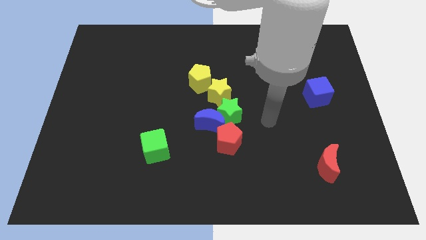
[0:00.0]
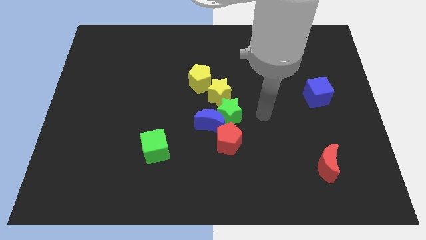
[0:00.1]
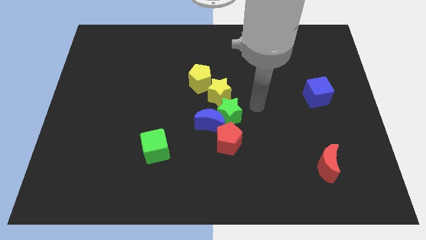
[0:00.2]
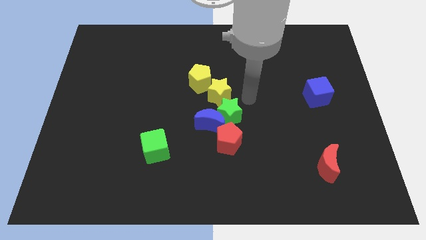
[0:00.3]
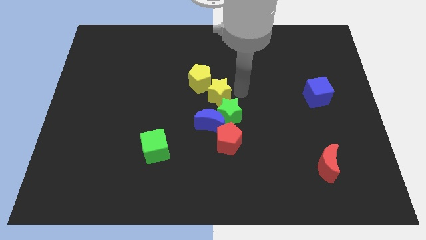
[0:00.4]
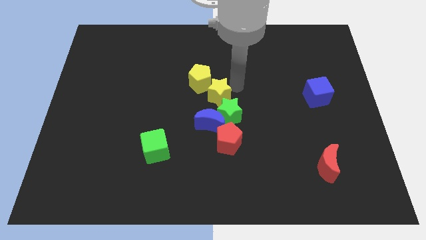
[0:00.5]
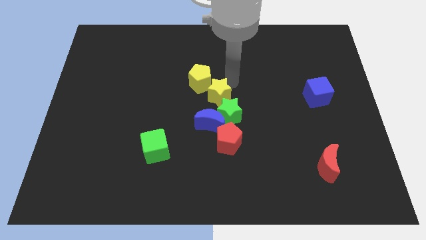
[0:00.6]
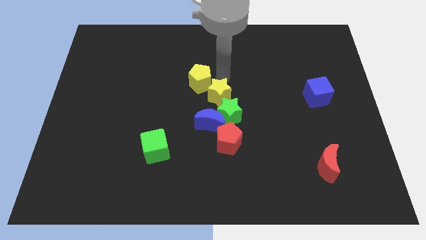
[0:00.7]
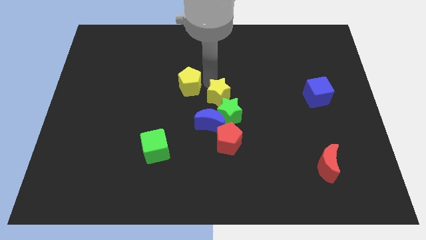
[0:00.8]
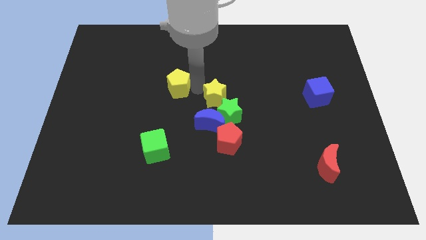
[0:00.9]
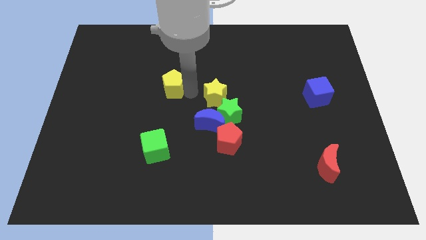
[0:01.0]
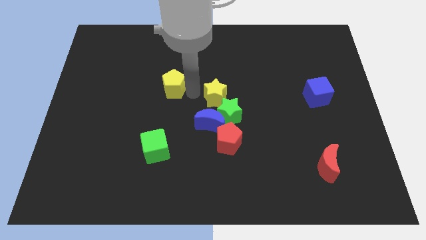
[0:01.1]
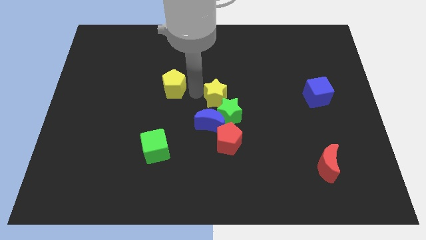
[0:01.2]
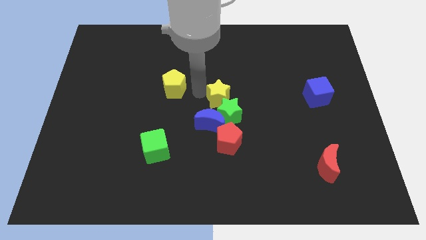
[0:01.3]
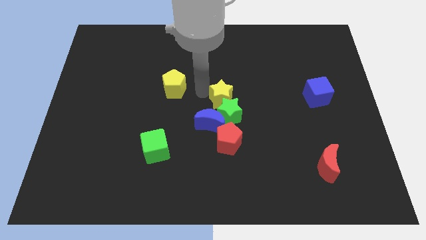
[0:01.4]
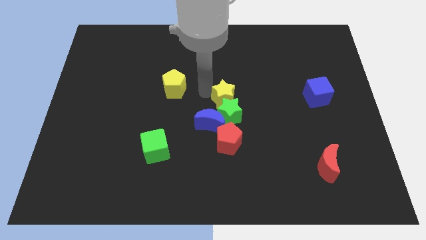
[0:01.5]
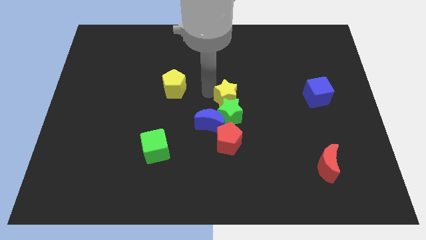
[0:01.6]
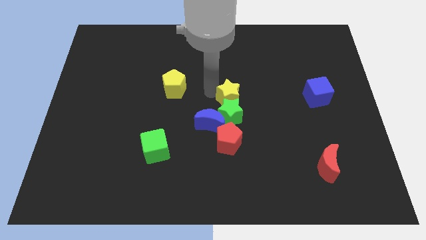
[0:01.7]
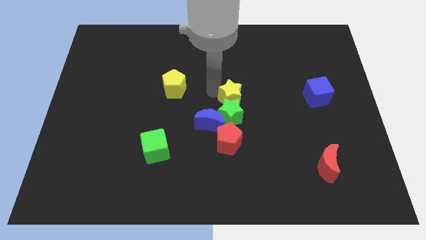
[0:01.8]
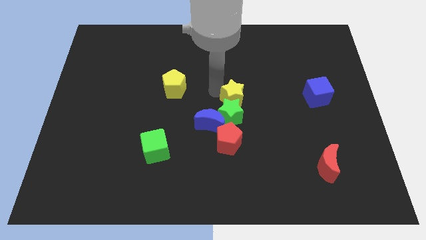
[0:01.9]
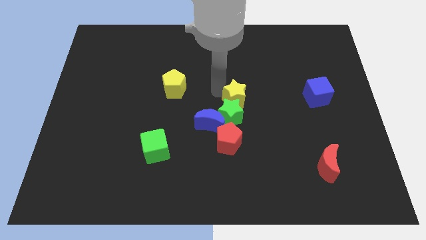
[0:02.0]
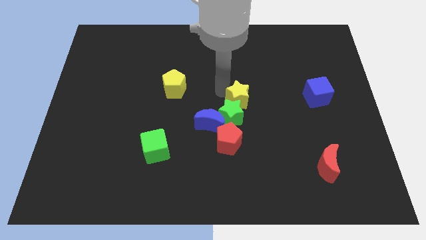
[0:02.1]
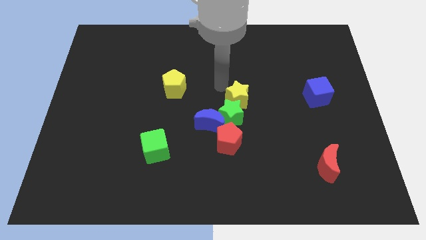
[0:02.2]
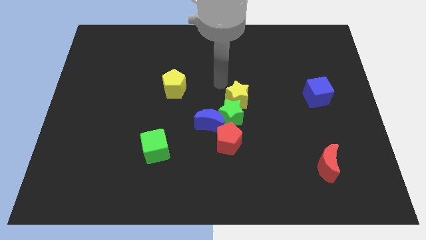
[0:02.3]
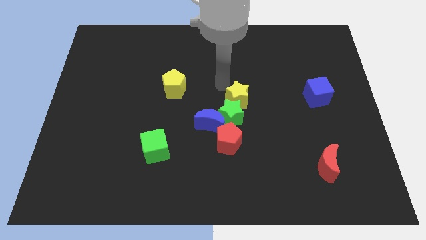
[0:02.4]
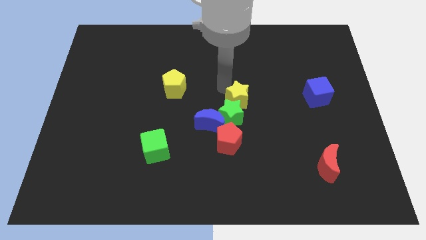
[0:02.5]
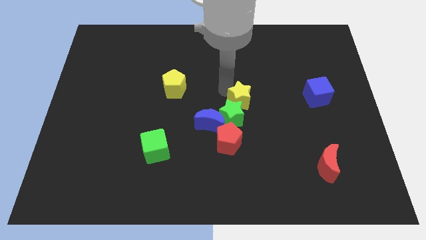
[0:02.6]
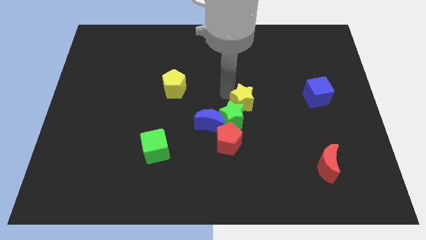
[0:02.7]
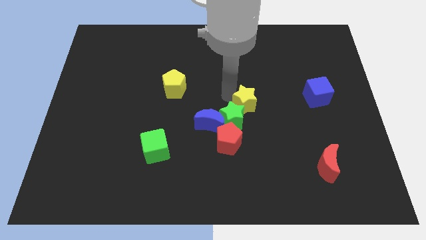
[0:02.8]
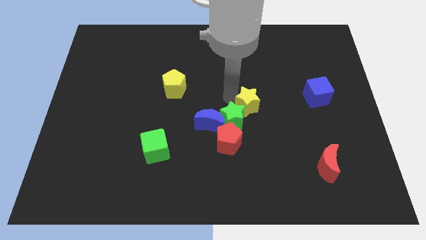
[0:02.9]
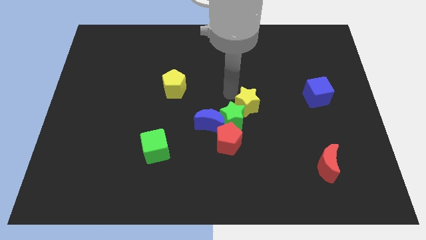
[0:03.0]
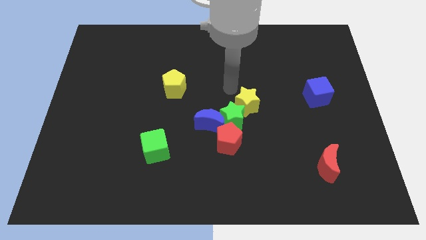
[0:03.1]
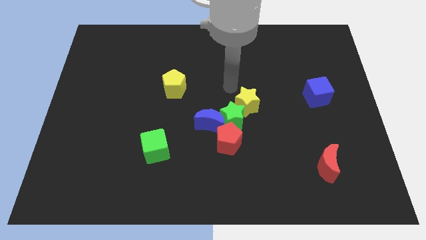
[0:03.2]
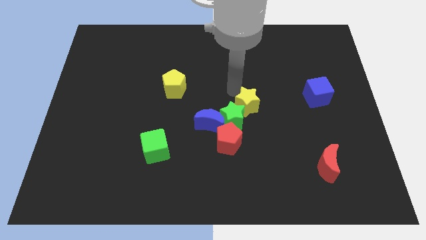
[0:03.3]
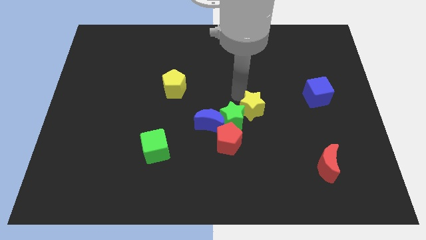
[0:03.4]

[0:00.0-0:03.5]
slide the yellow star downwards and to the right slightly

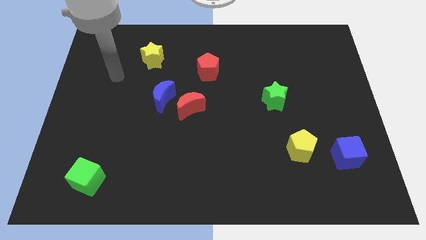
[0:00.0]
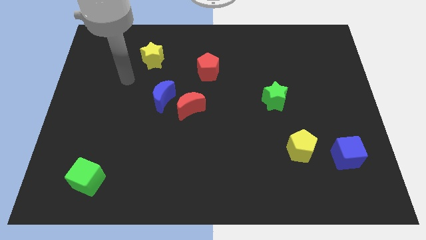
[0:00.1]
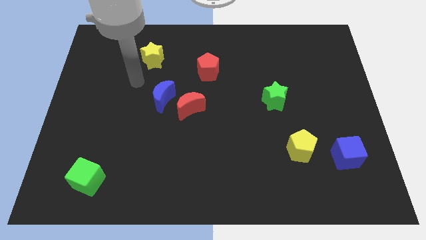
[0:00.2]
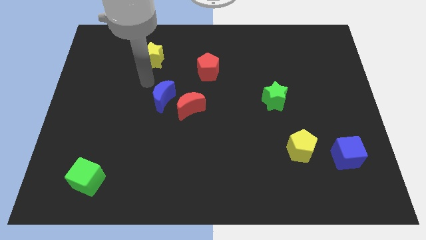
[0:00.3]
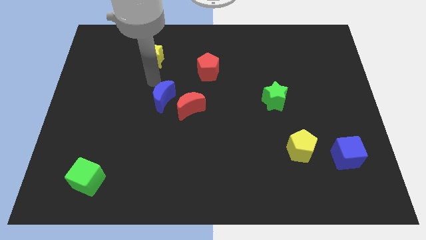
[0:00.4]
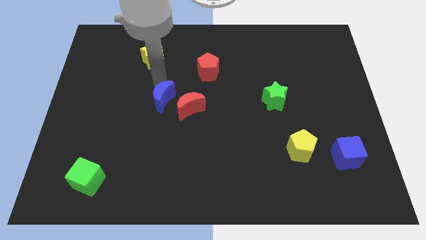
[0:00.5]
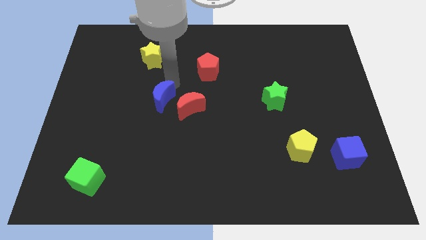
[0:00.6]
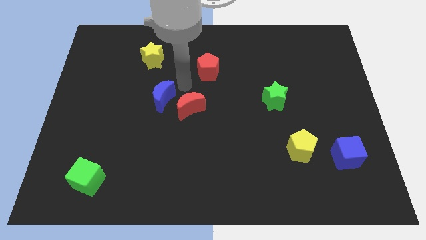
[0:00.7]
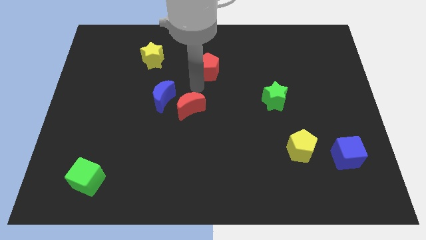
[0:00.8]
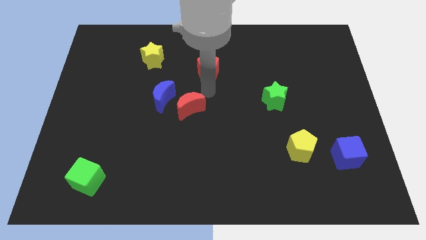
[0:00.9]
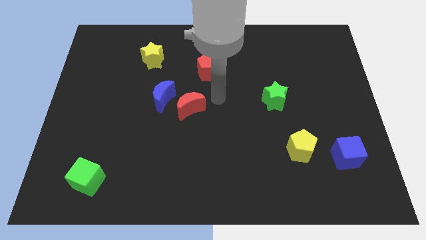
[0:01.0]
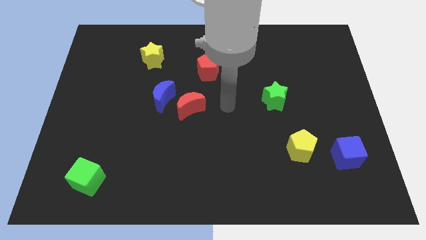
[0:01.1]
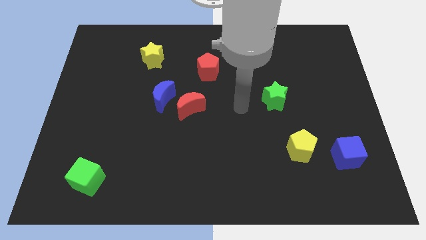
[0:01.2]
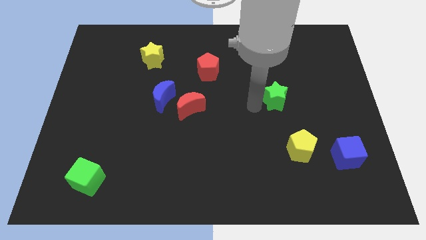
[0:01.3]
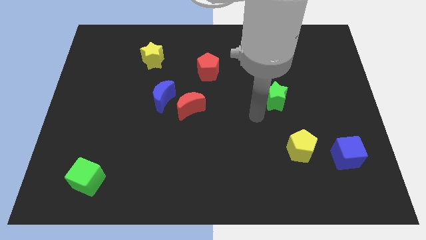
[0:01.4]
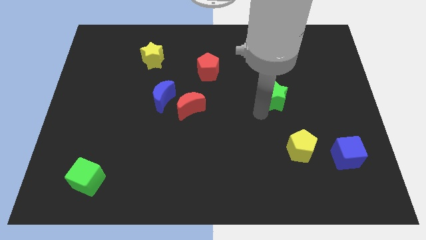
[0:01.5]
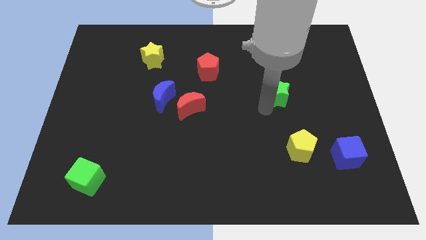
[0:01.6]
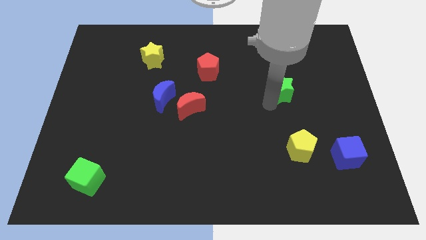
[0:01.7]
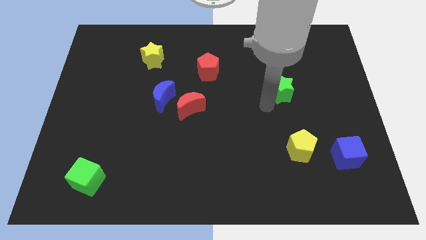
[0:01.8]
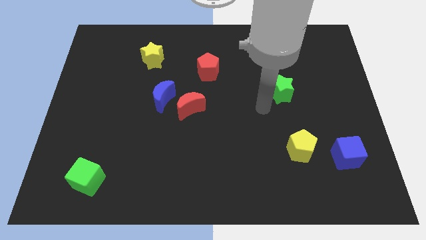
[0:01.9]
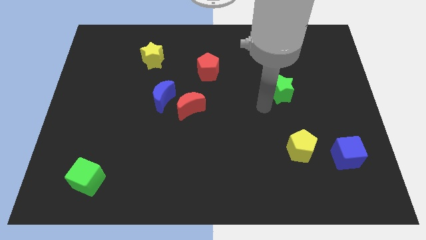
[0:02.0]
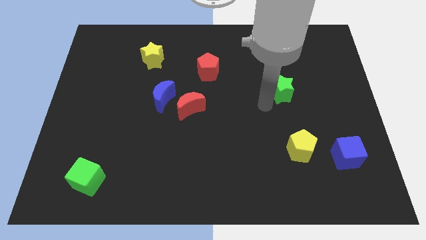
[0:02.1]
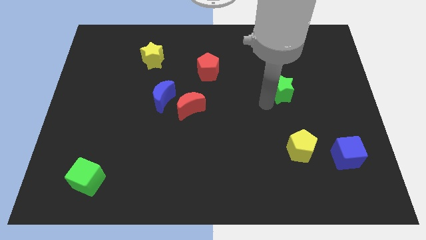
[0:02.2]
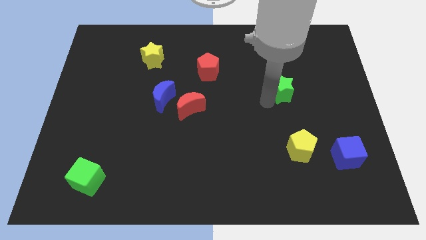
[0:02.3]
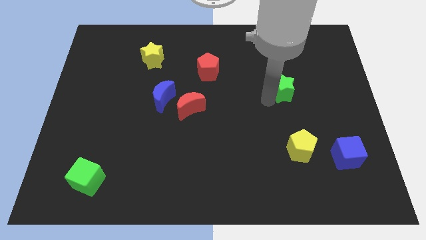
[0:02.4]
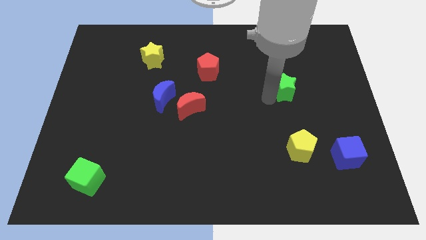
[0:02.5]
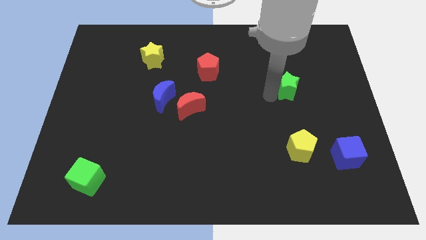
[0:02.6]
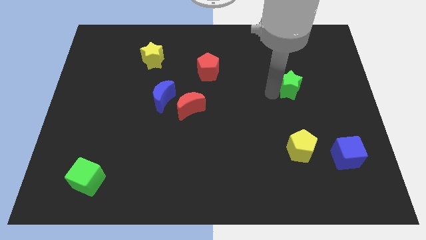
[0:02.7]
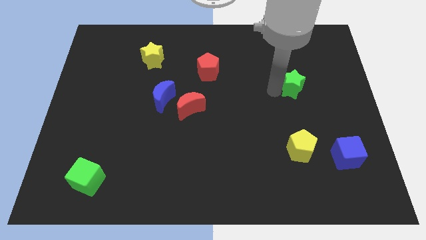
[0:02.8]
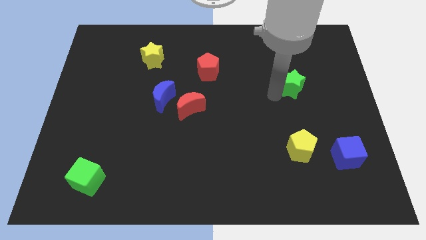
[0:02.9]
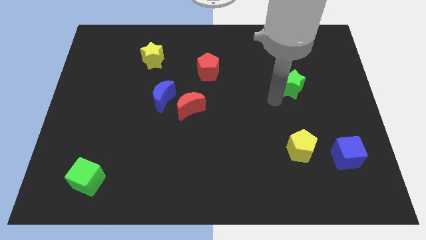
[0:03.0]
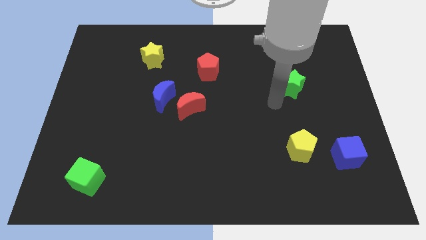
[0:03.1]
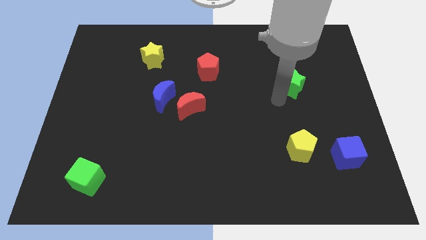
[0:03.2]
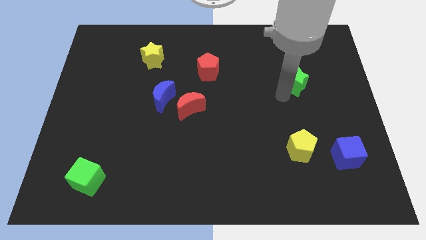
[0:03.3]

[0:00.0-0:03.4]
slightly push the green star upwards and right diagonally

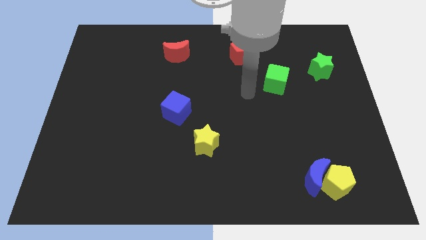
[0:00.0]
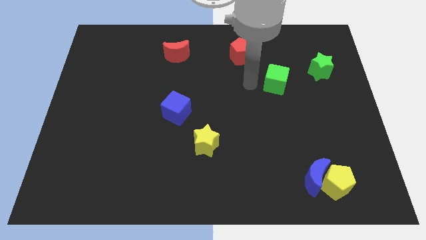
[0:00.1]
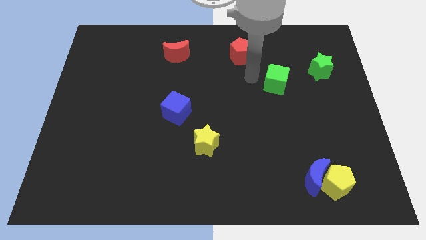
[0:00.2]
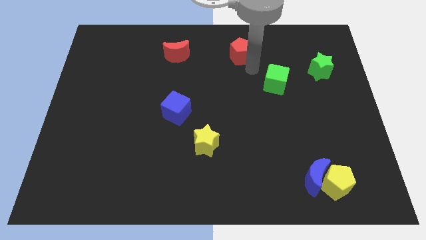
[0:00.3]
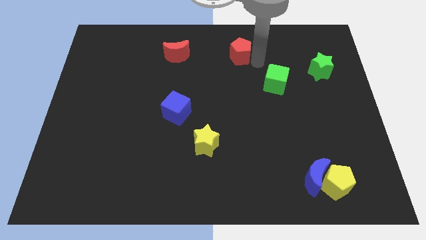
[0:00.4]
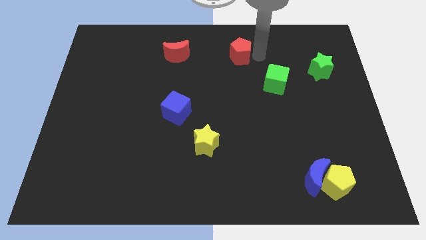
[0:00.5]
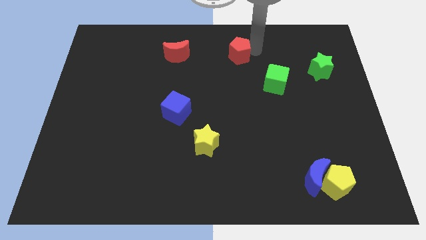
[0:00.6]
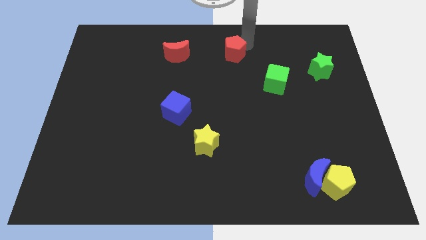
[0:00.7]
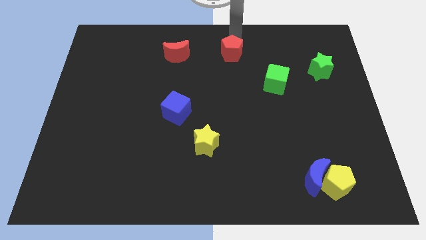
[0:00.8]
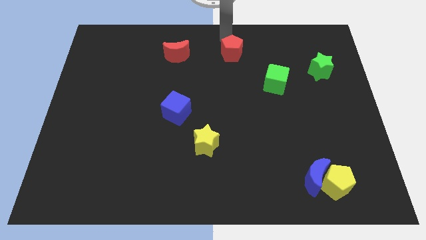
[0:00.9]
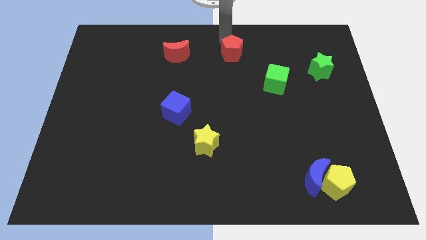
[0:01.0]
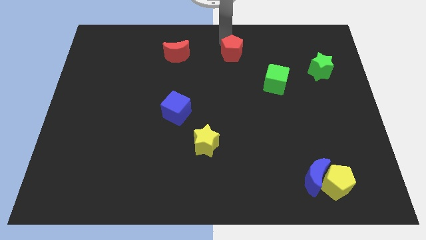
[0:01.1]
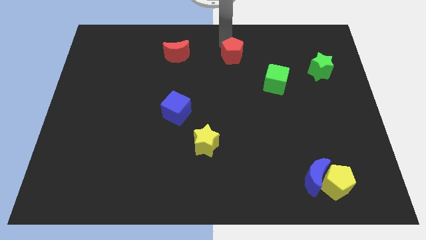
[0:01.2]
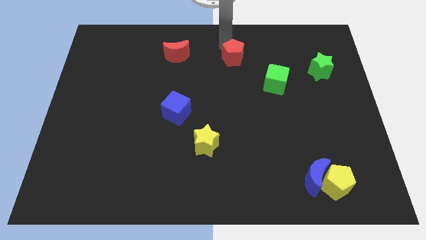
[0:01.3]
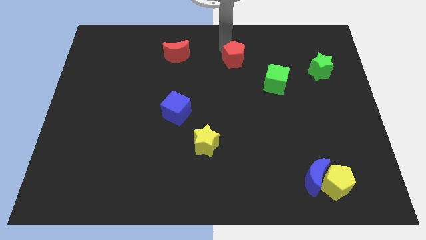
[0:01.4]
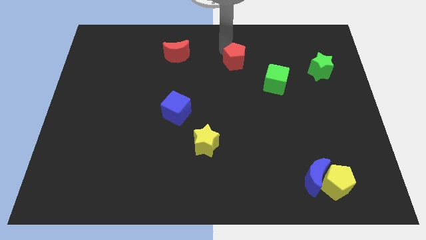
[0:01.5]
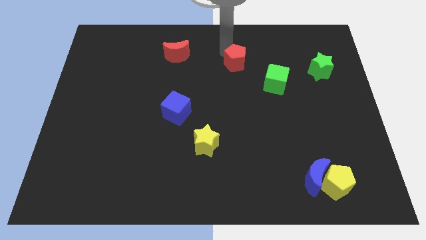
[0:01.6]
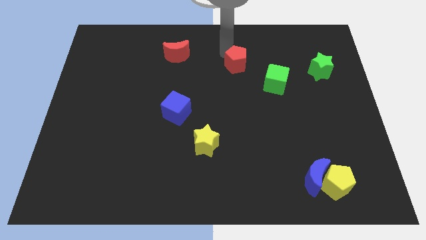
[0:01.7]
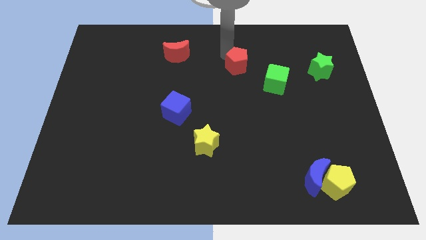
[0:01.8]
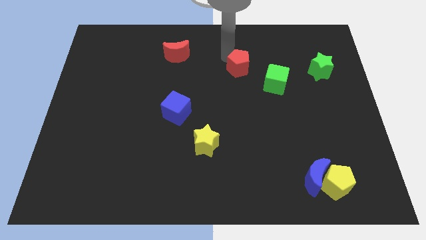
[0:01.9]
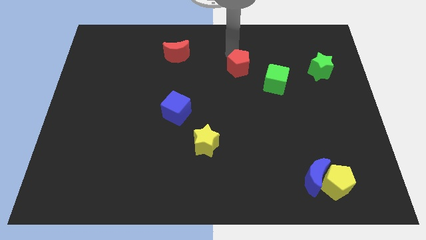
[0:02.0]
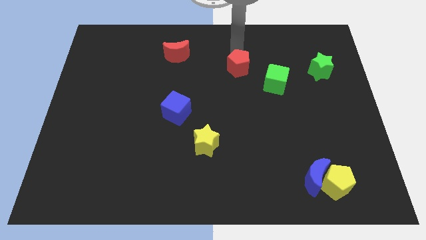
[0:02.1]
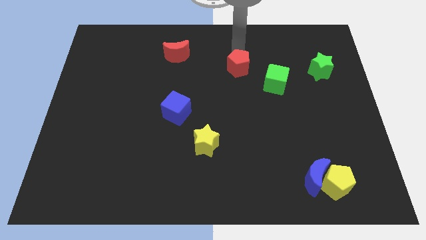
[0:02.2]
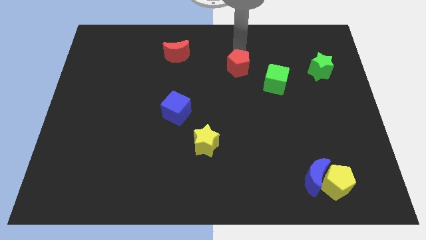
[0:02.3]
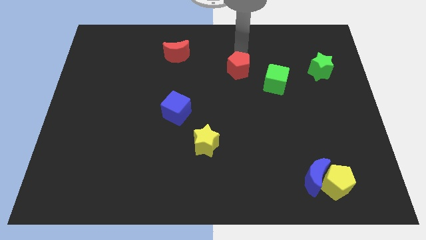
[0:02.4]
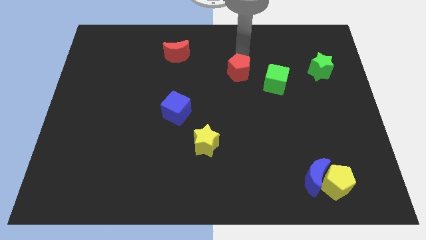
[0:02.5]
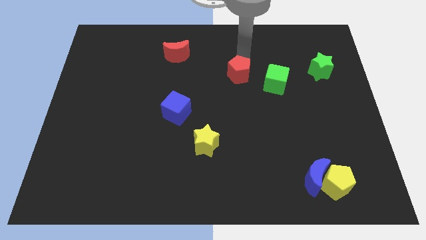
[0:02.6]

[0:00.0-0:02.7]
slightly move the red pentagon down
